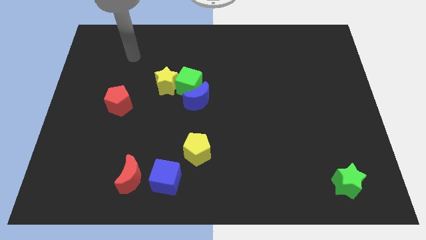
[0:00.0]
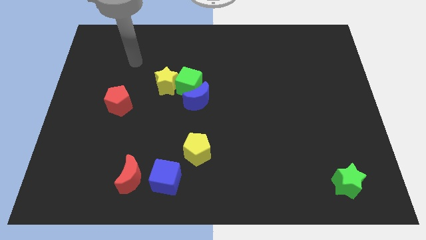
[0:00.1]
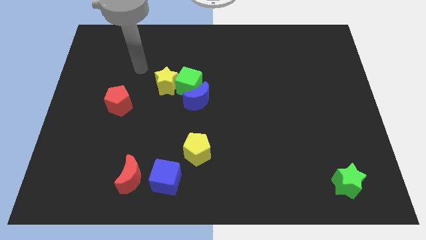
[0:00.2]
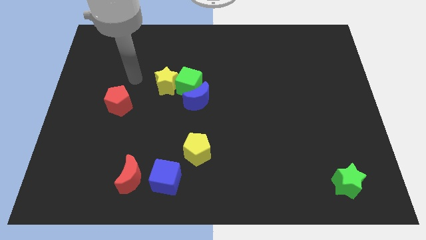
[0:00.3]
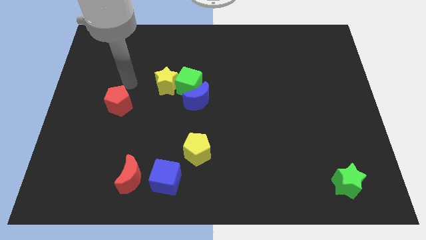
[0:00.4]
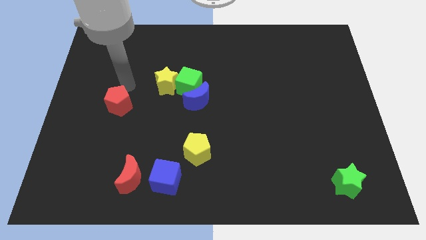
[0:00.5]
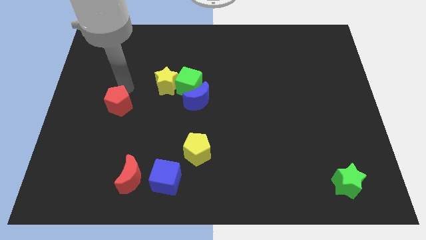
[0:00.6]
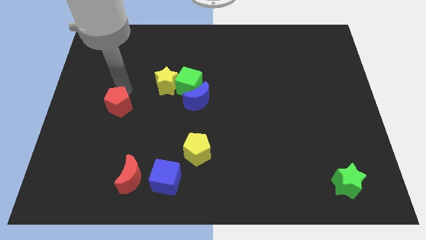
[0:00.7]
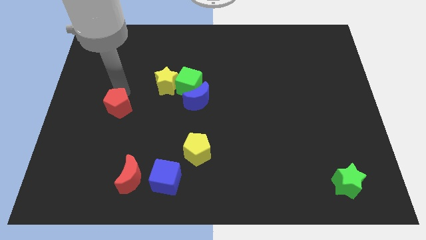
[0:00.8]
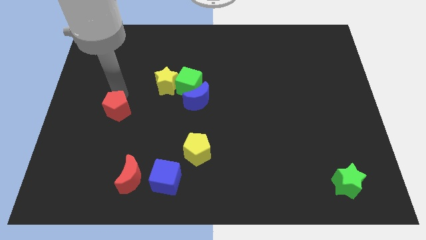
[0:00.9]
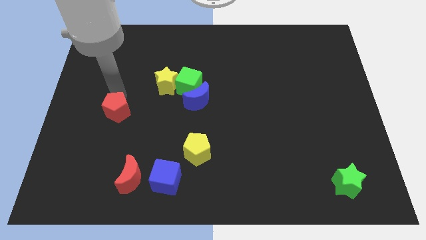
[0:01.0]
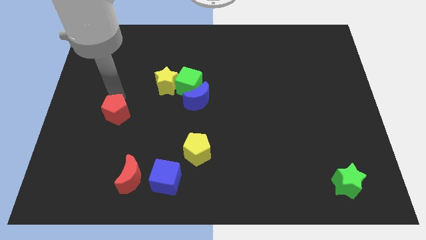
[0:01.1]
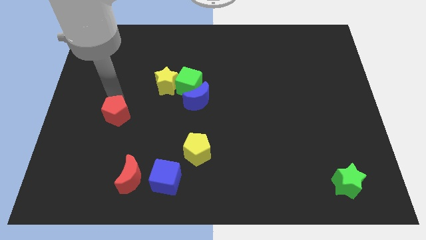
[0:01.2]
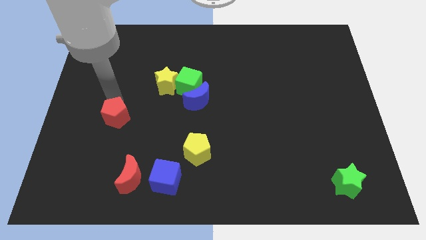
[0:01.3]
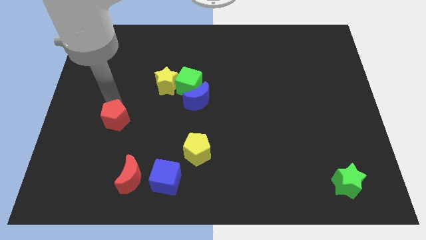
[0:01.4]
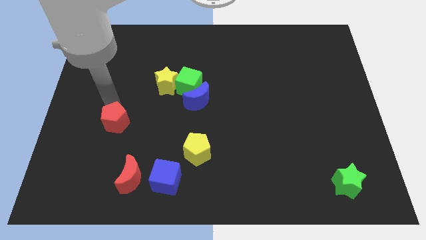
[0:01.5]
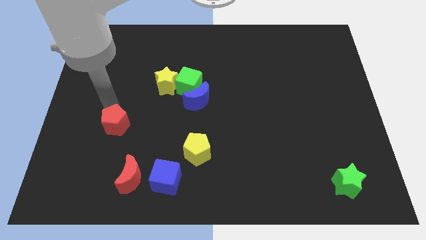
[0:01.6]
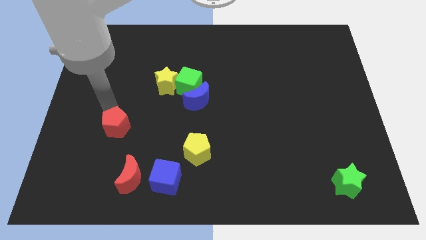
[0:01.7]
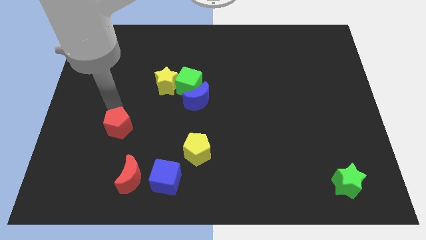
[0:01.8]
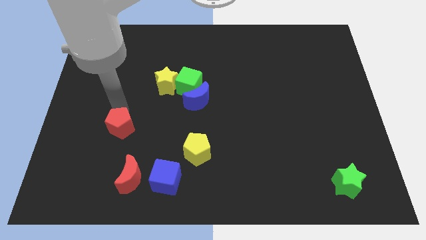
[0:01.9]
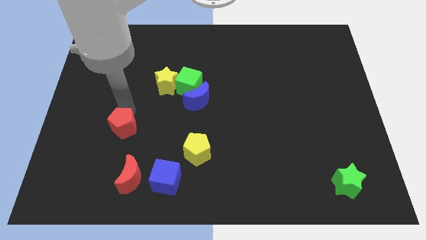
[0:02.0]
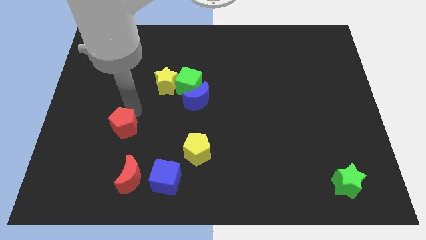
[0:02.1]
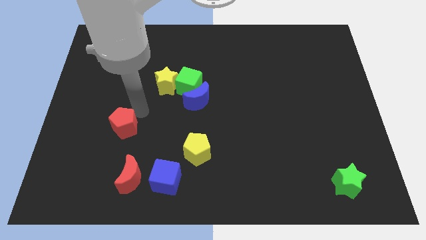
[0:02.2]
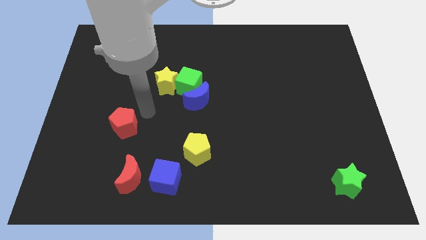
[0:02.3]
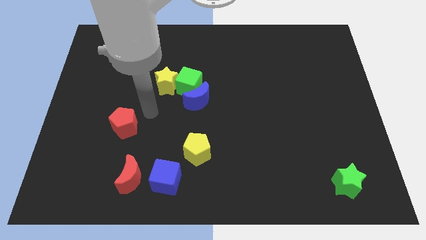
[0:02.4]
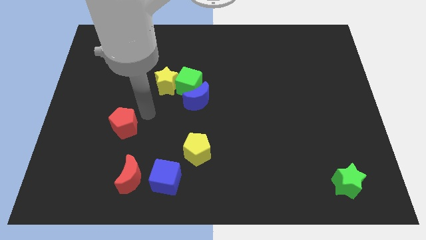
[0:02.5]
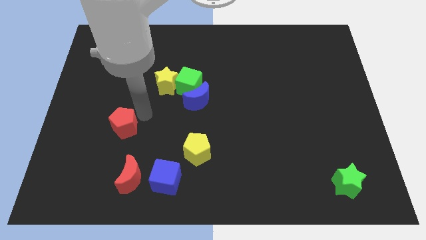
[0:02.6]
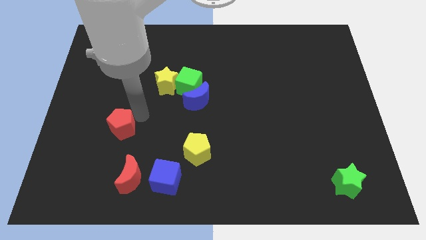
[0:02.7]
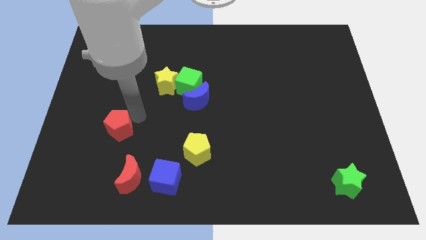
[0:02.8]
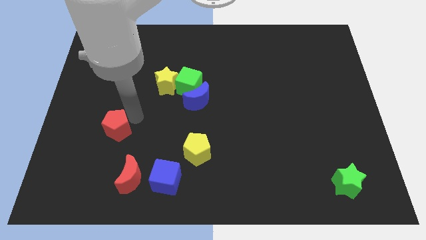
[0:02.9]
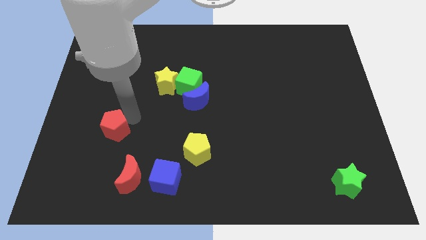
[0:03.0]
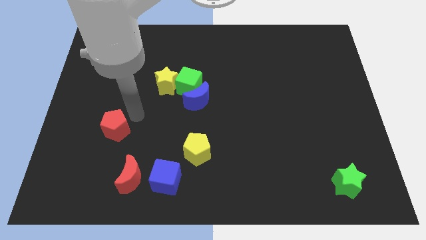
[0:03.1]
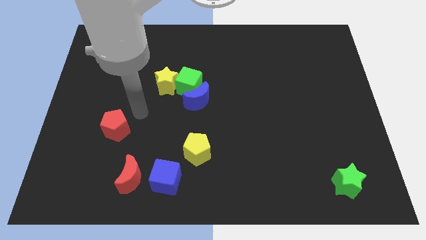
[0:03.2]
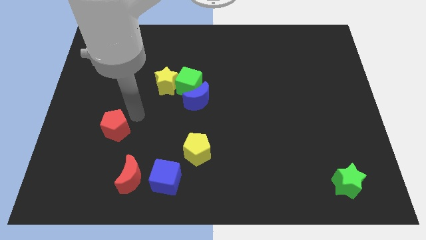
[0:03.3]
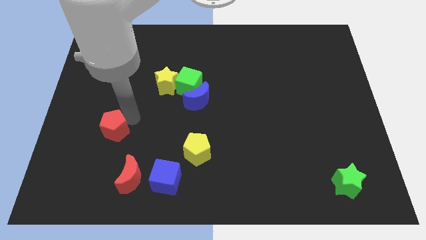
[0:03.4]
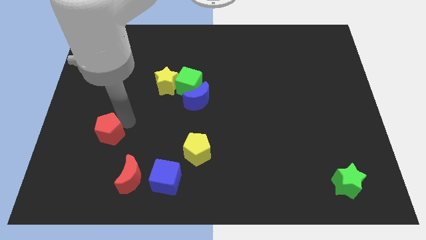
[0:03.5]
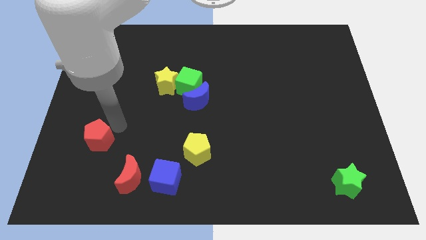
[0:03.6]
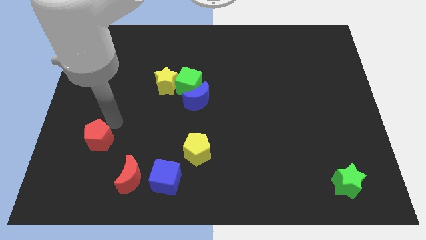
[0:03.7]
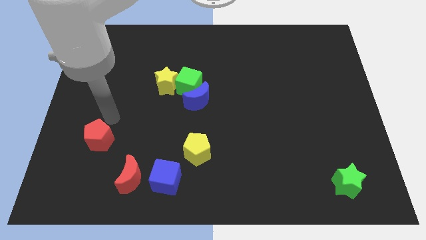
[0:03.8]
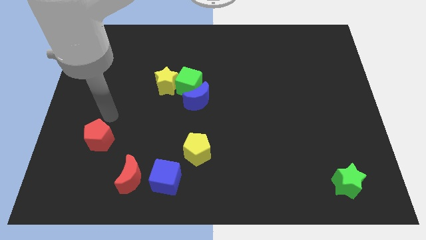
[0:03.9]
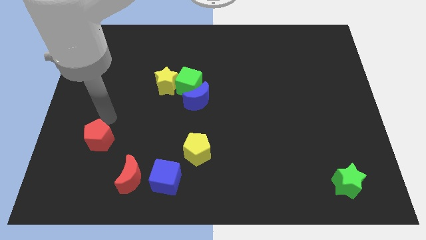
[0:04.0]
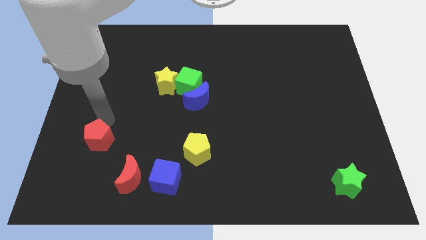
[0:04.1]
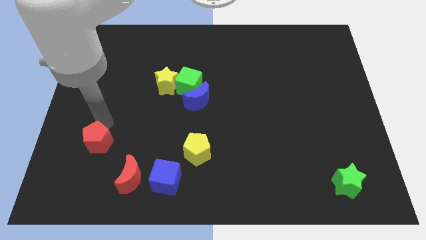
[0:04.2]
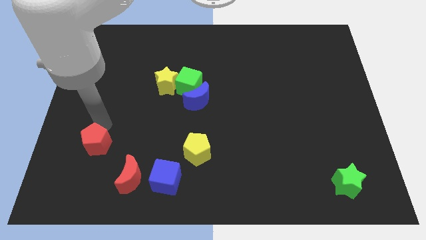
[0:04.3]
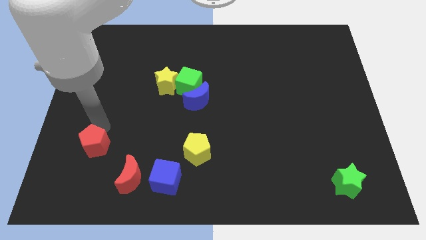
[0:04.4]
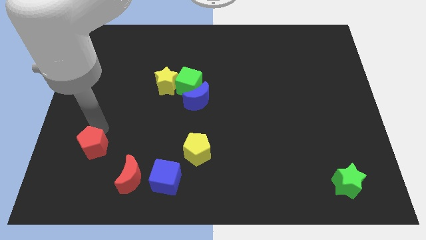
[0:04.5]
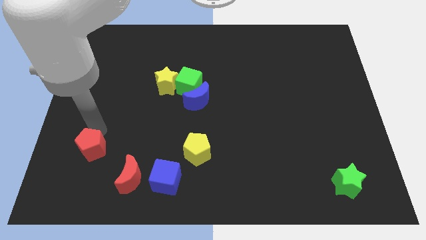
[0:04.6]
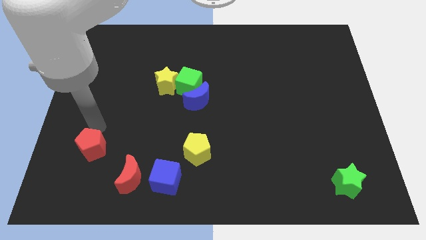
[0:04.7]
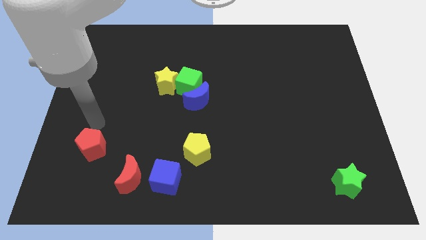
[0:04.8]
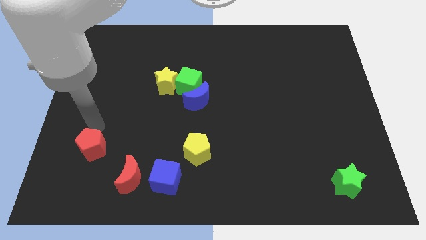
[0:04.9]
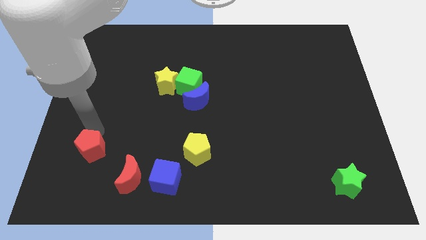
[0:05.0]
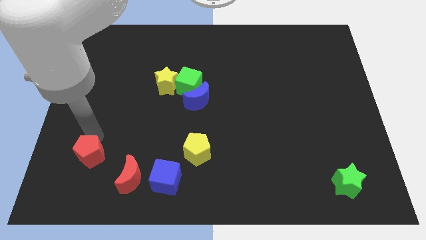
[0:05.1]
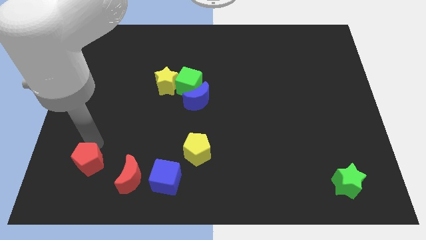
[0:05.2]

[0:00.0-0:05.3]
put the red pentagon left of the red moon

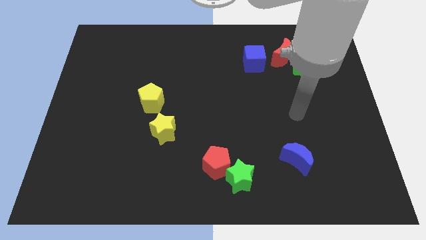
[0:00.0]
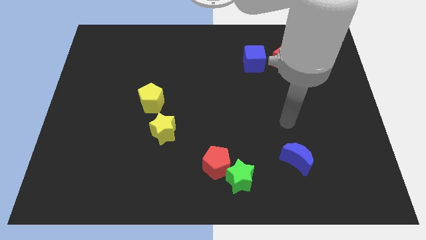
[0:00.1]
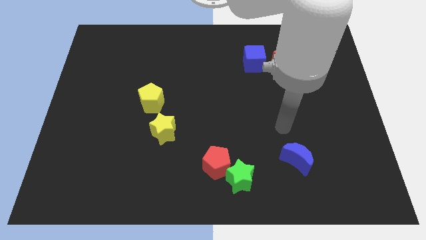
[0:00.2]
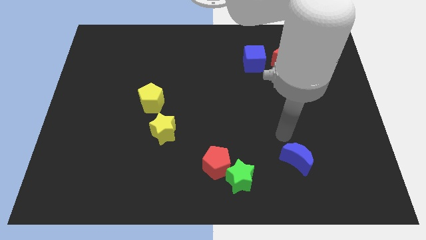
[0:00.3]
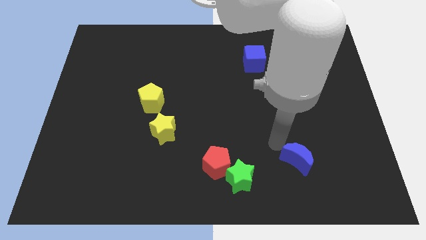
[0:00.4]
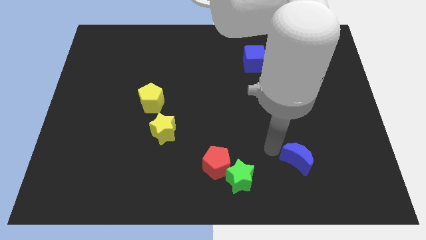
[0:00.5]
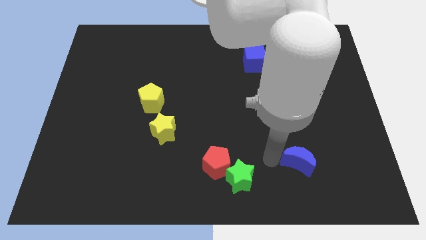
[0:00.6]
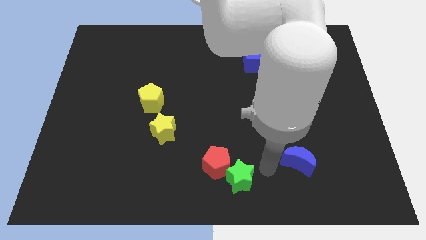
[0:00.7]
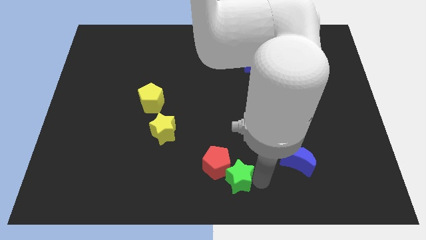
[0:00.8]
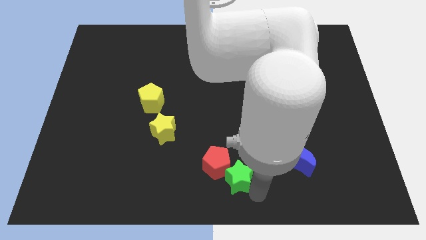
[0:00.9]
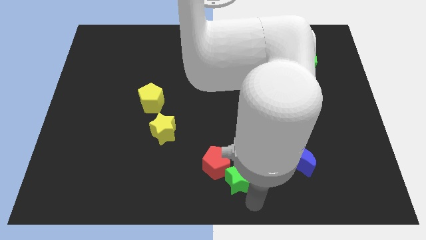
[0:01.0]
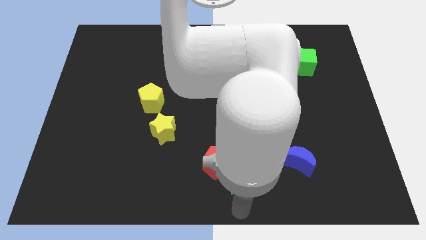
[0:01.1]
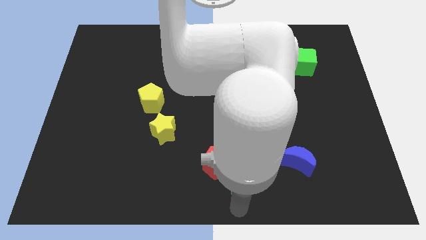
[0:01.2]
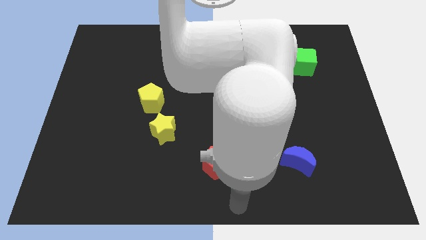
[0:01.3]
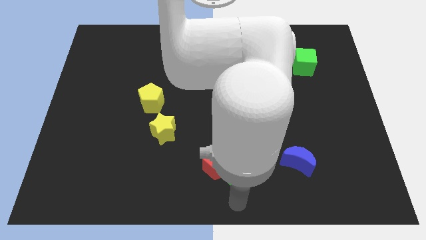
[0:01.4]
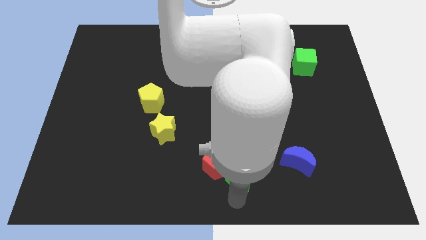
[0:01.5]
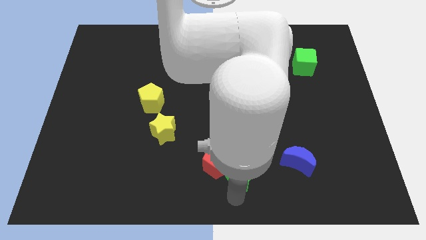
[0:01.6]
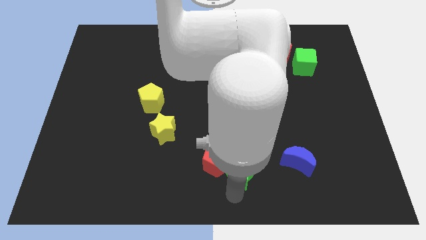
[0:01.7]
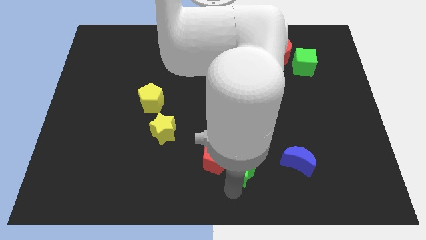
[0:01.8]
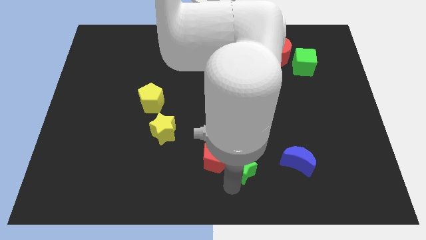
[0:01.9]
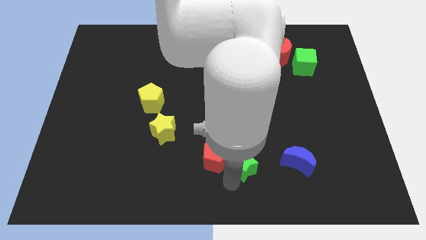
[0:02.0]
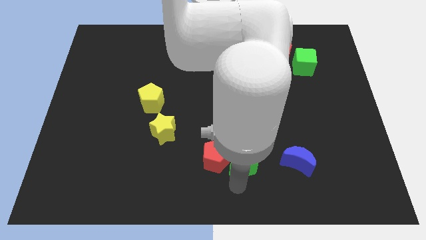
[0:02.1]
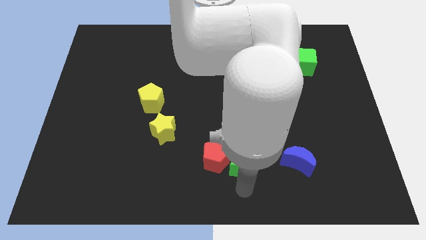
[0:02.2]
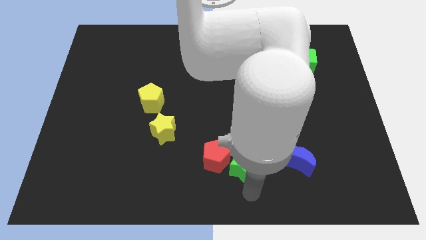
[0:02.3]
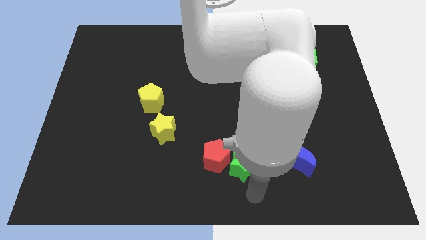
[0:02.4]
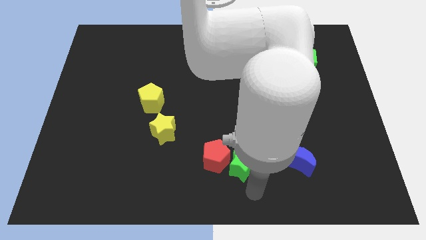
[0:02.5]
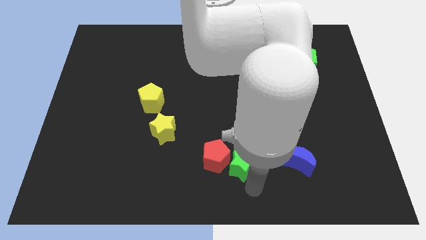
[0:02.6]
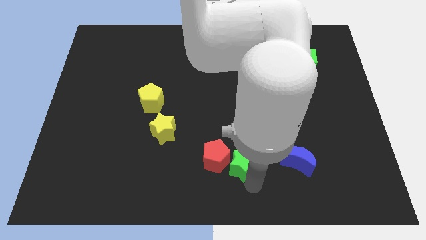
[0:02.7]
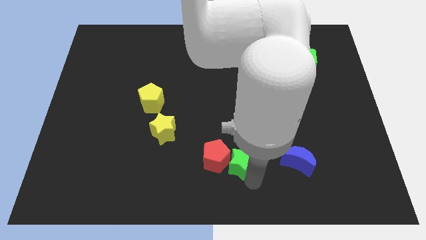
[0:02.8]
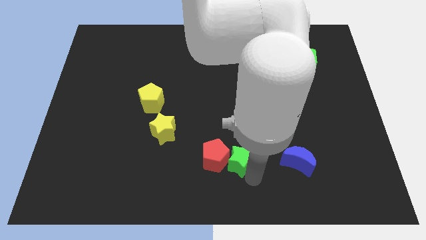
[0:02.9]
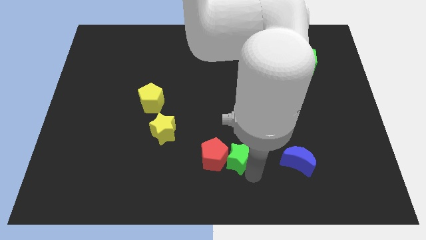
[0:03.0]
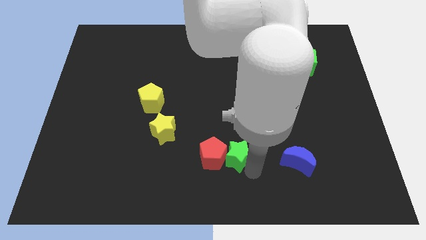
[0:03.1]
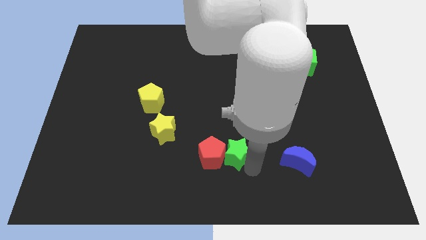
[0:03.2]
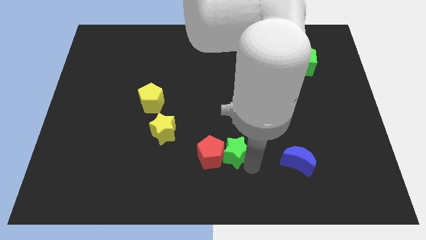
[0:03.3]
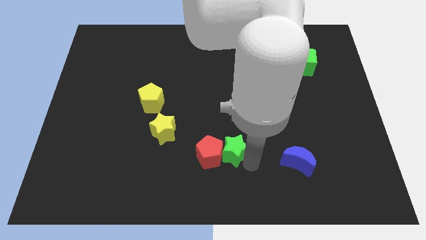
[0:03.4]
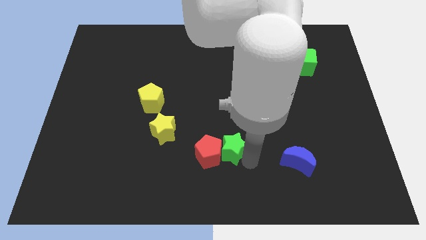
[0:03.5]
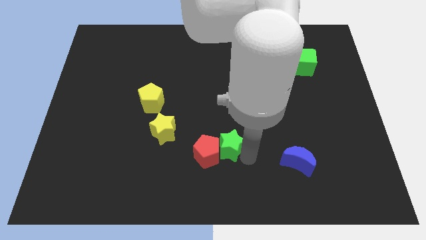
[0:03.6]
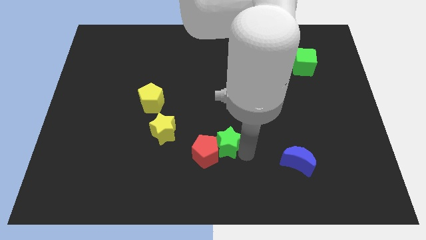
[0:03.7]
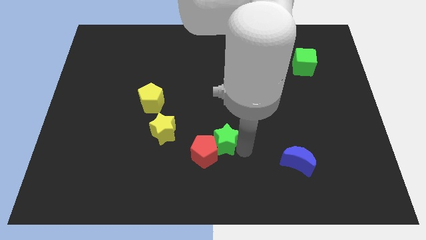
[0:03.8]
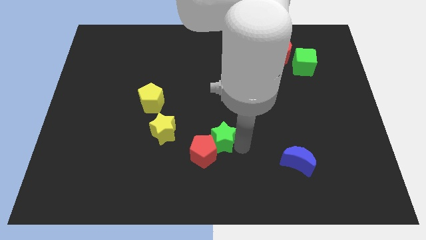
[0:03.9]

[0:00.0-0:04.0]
push the green star to the top side of the red pentagon
